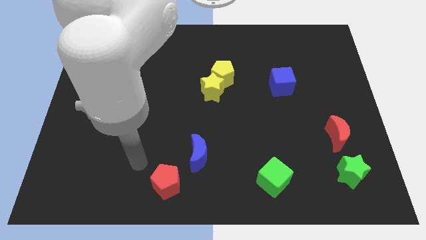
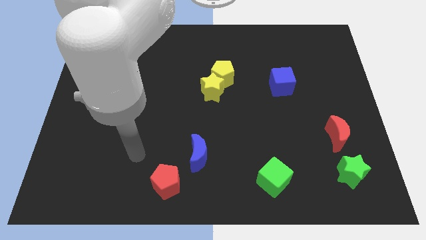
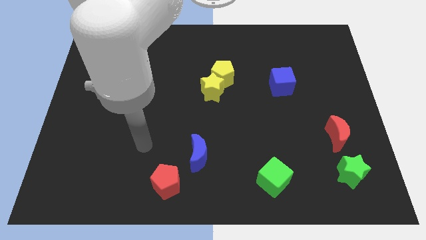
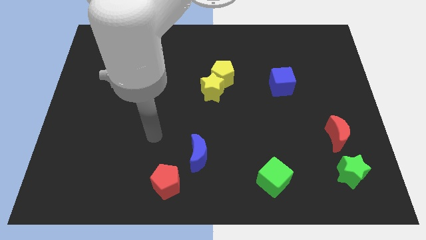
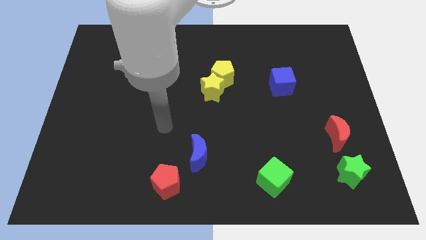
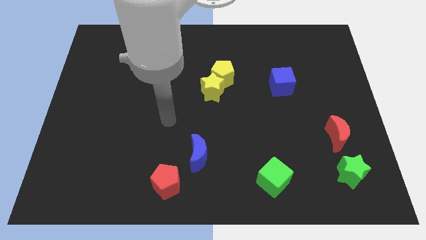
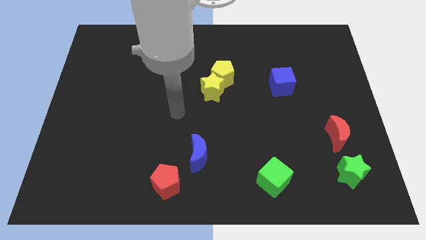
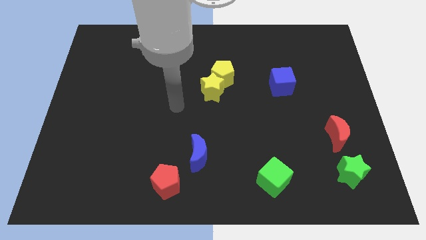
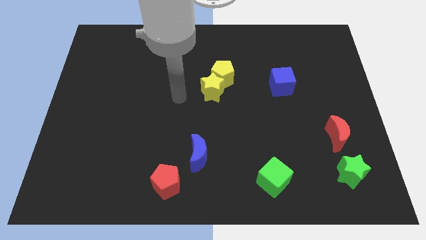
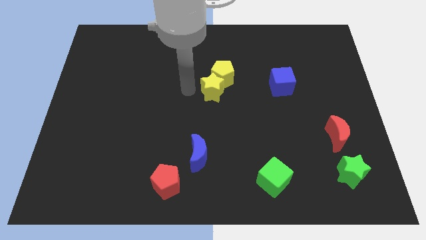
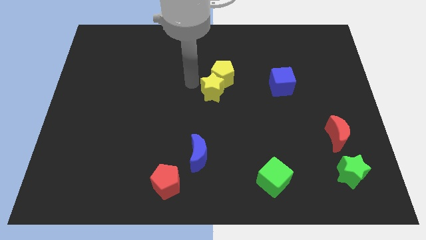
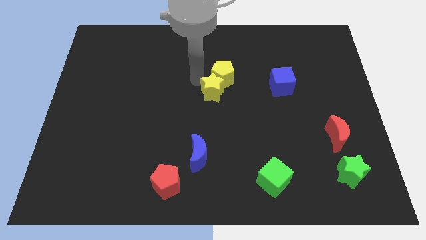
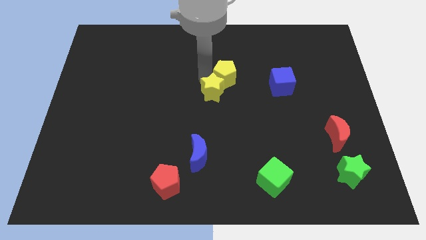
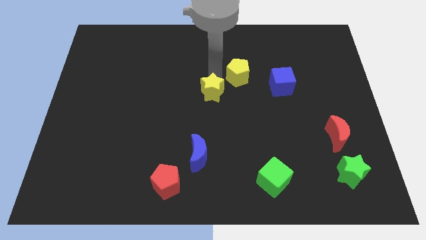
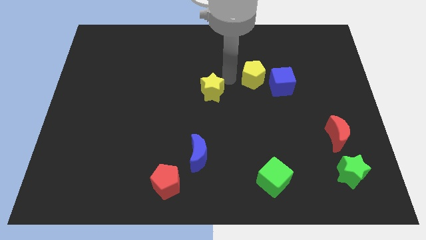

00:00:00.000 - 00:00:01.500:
move the yellow star away from the yellow pentagon

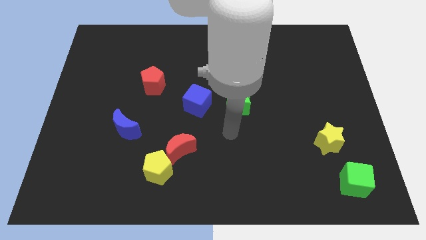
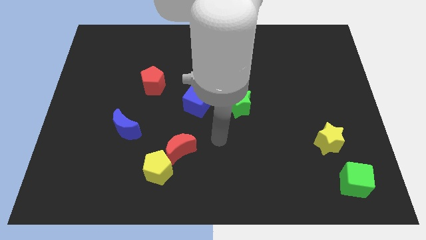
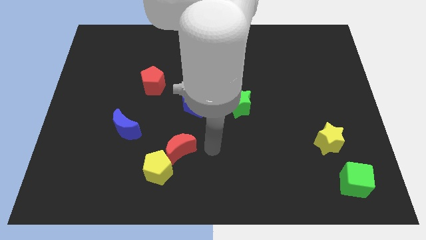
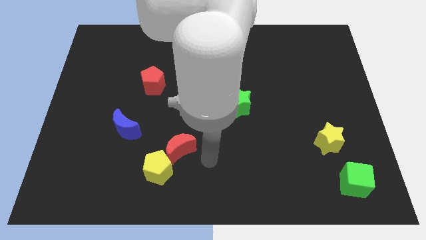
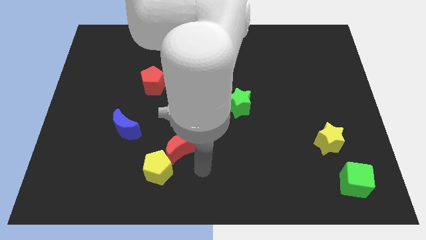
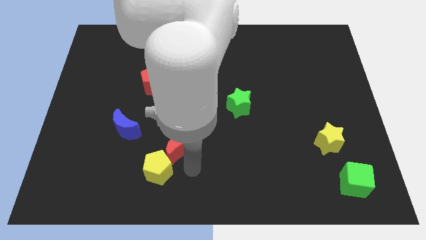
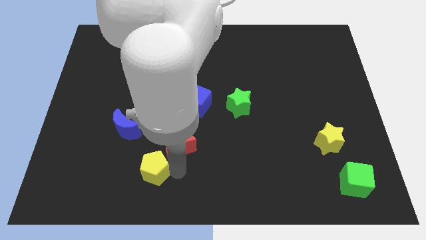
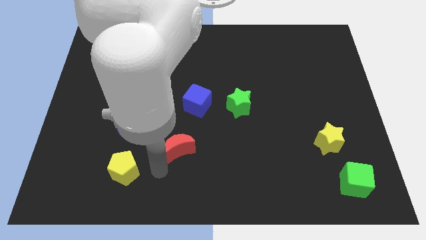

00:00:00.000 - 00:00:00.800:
pull the red moon apart from the yellow pentagon

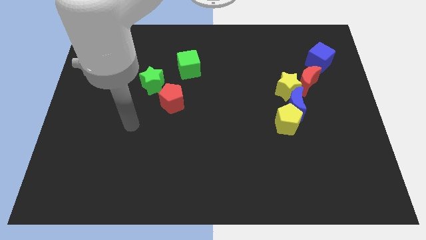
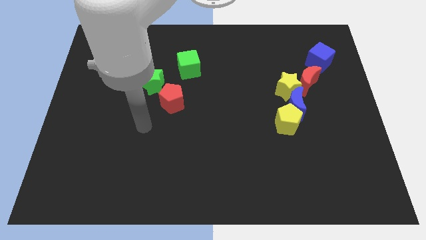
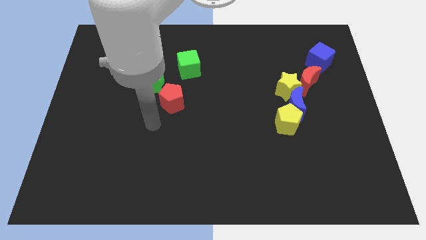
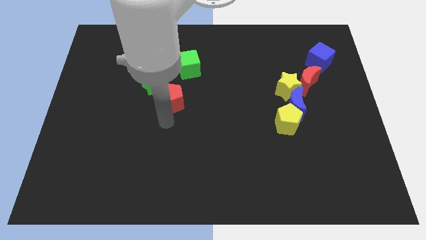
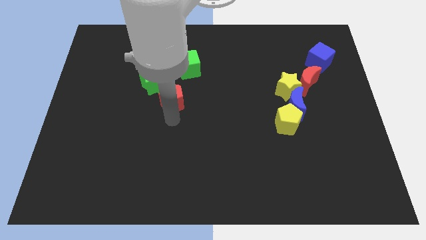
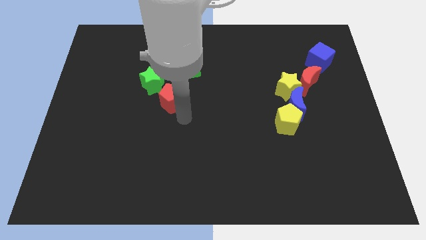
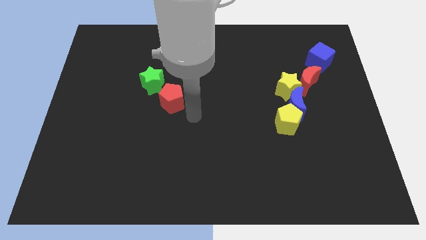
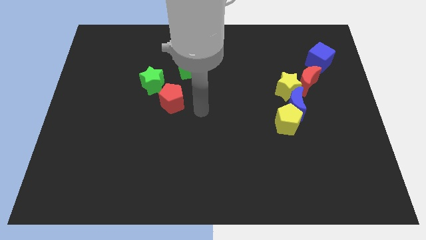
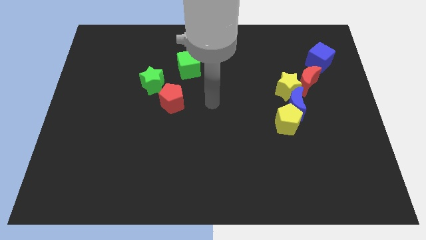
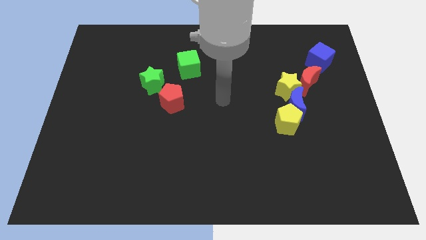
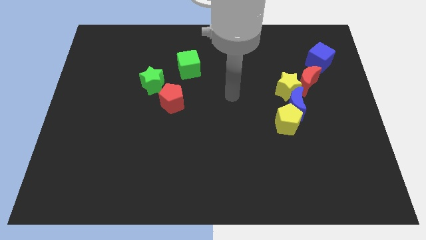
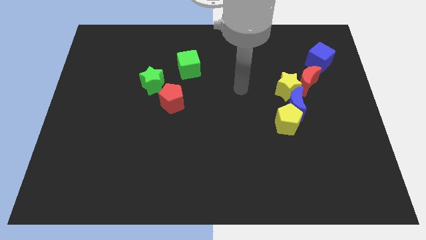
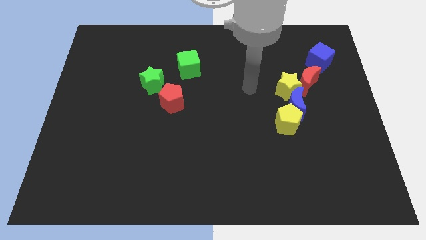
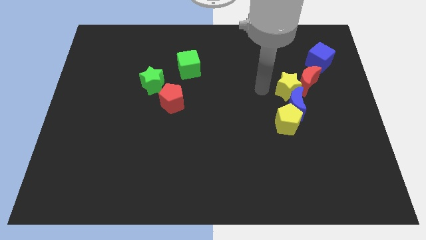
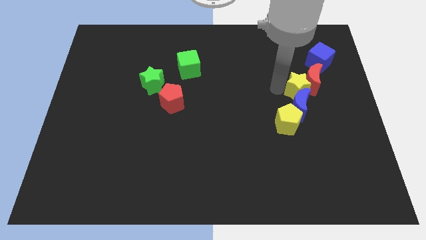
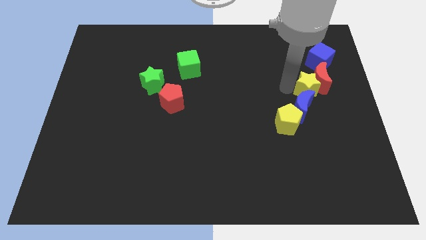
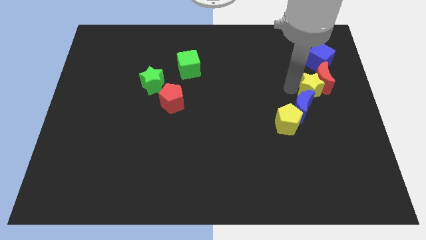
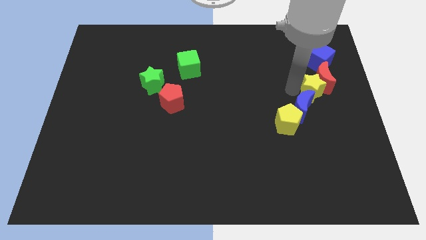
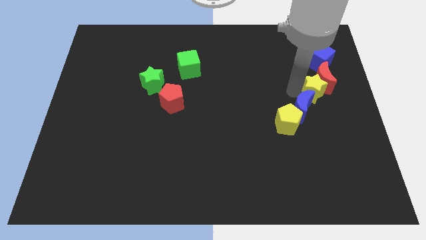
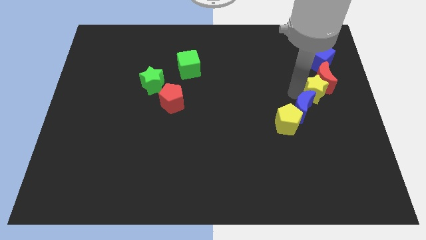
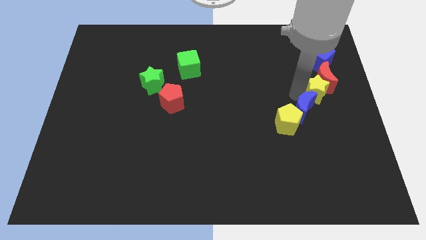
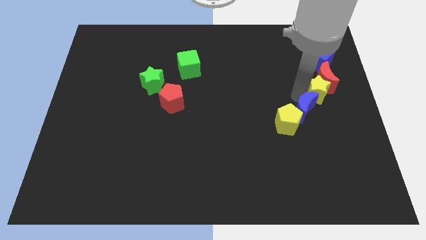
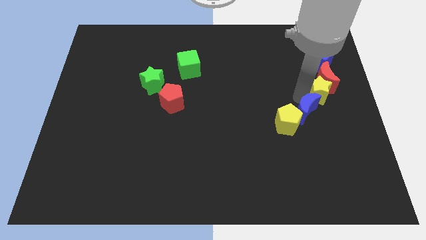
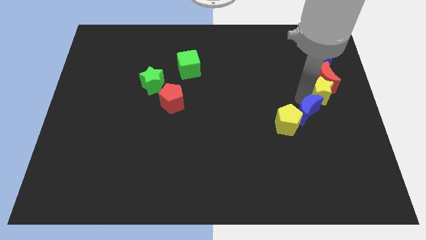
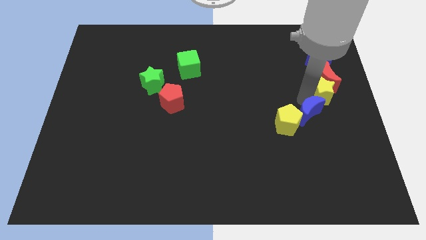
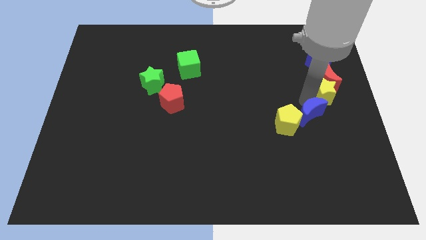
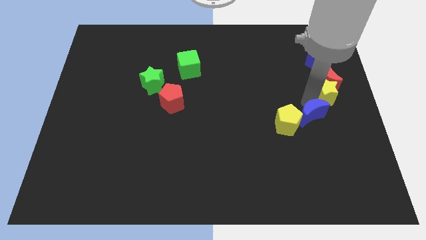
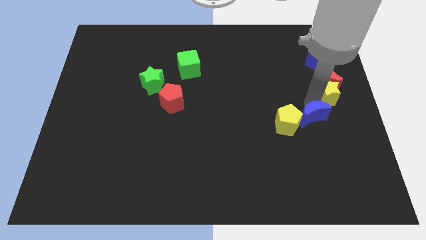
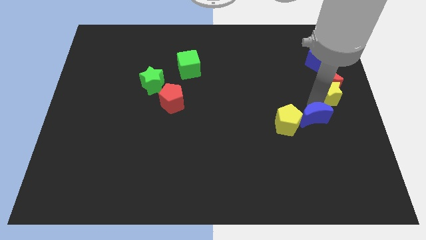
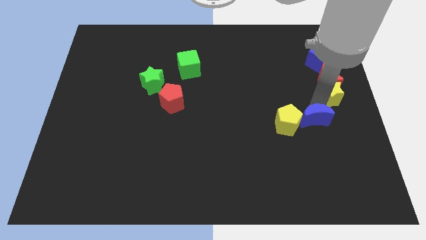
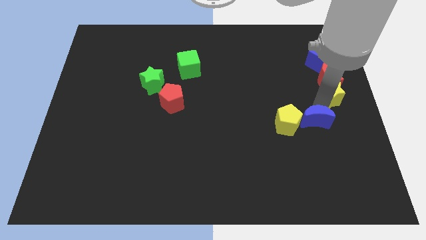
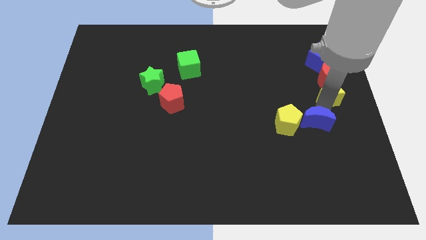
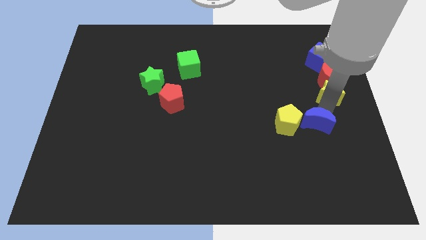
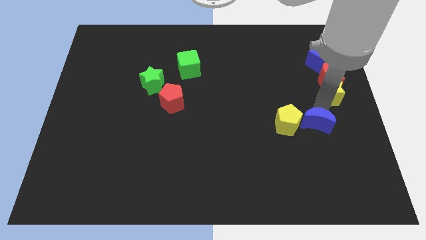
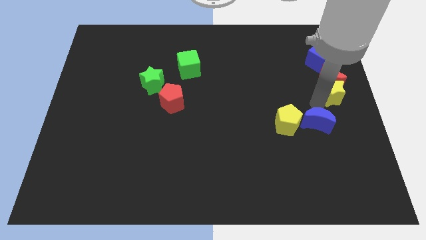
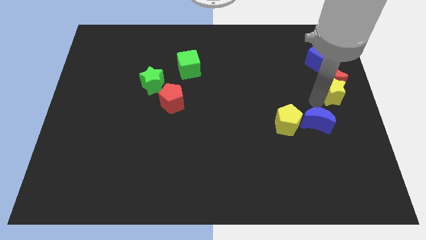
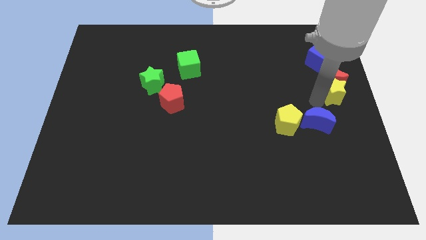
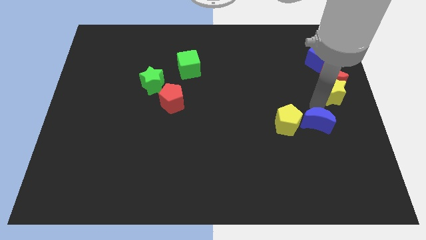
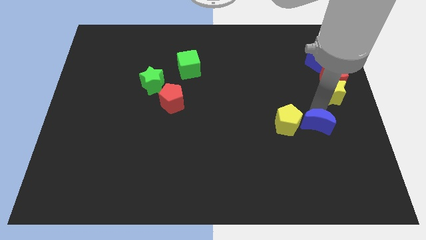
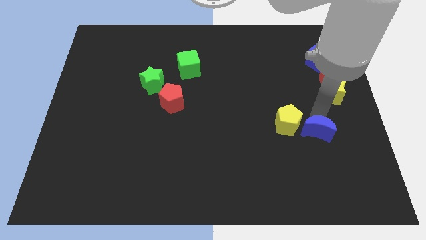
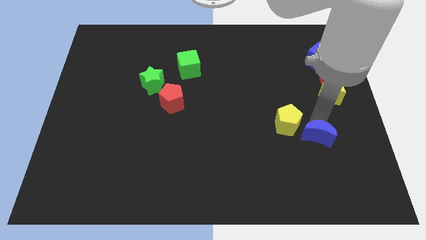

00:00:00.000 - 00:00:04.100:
move the blue moon away from the group of blocks

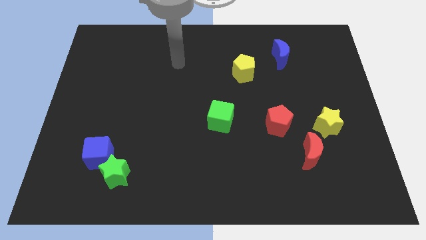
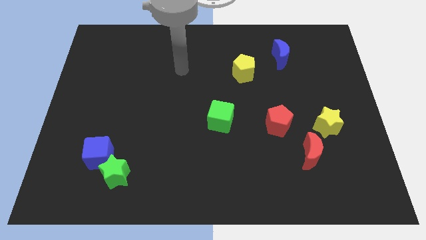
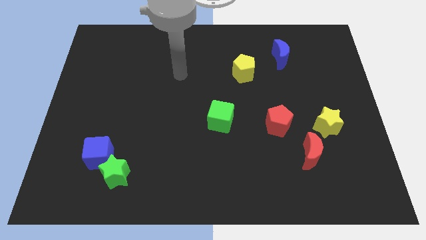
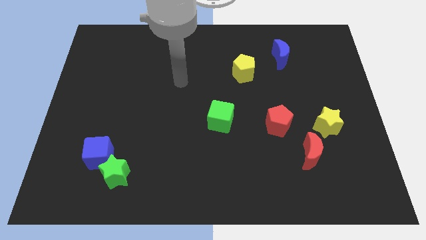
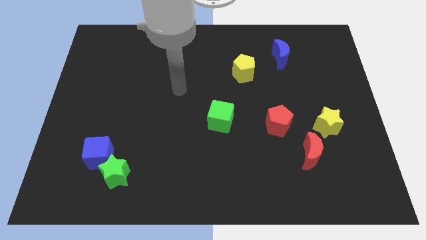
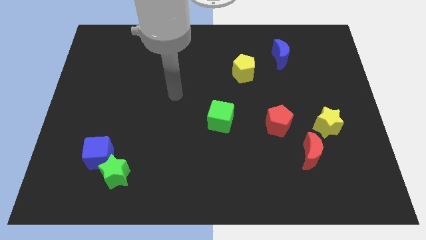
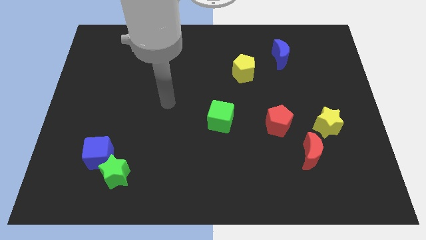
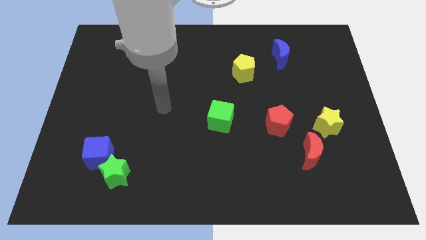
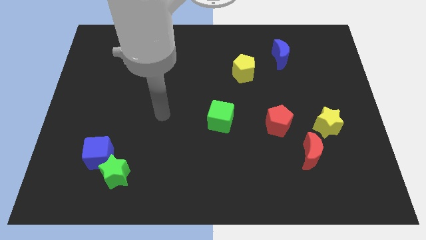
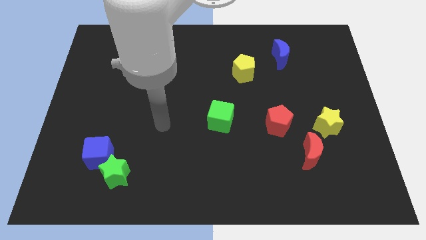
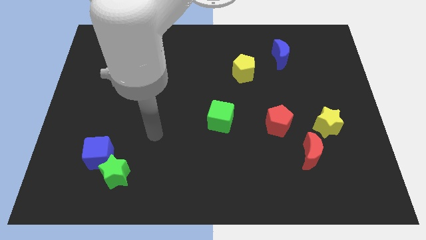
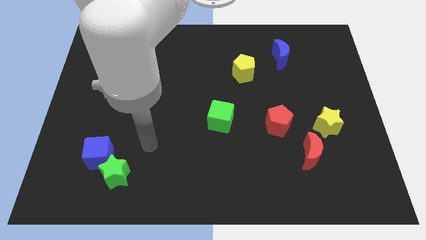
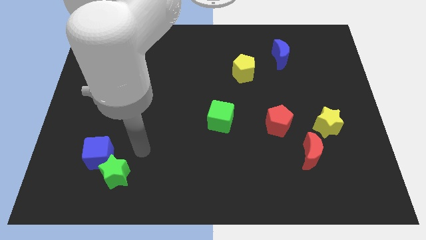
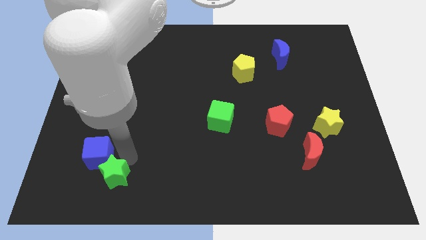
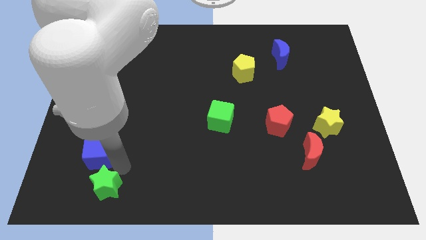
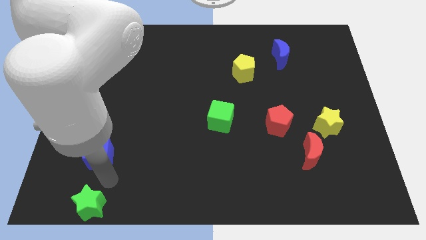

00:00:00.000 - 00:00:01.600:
pull the blue cube apart from the green star

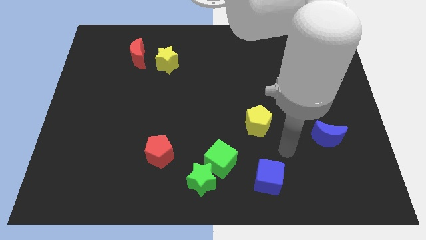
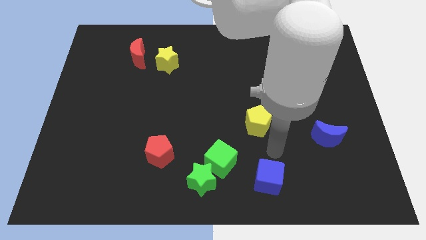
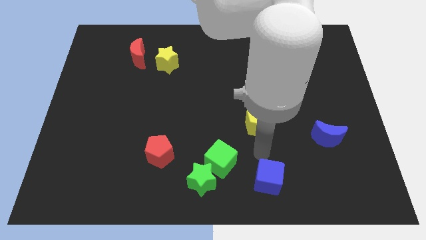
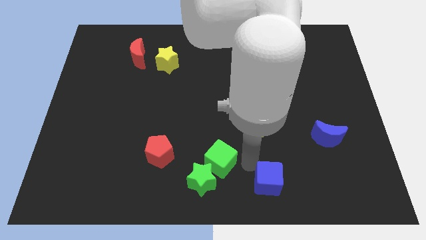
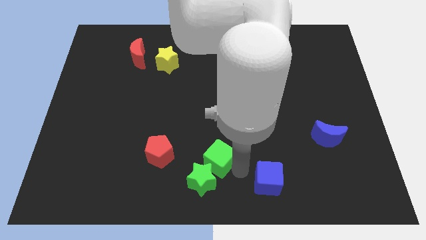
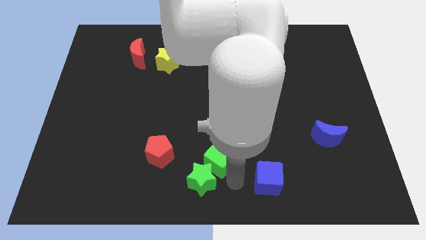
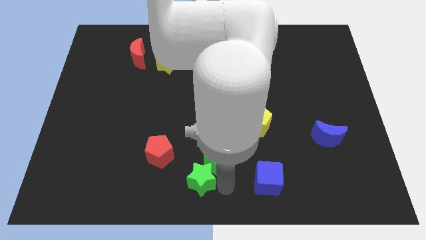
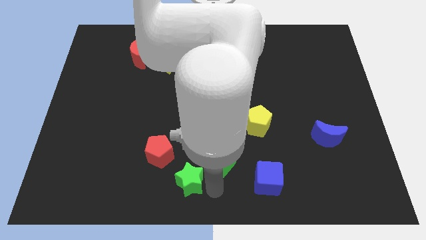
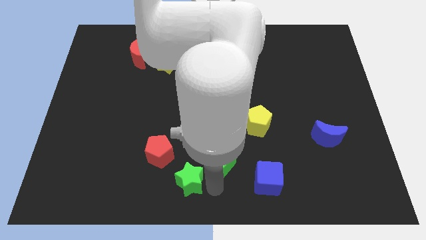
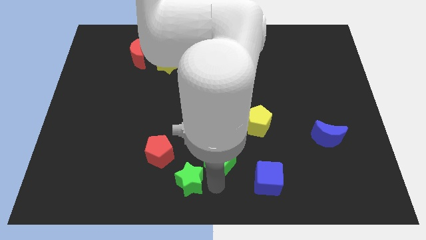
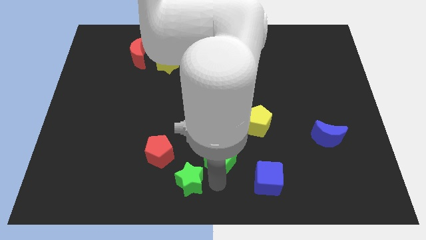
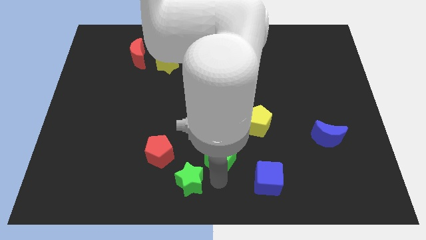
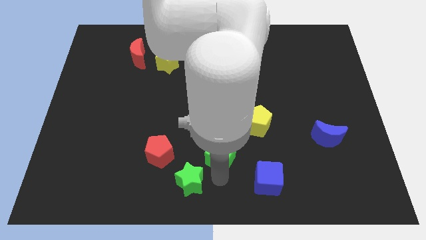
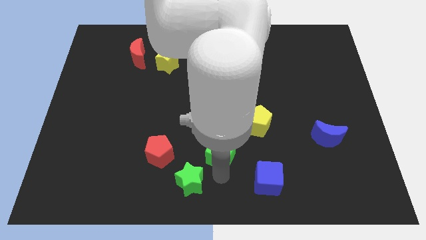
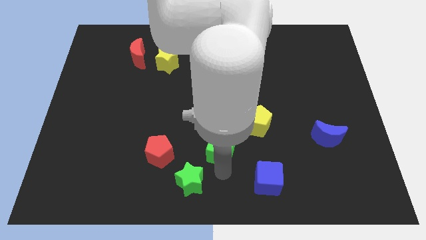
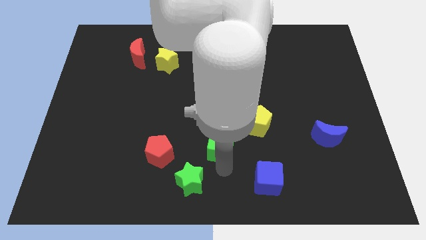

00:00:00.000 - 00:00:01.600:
separate the green cube from the green star
